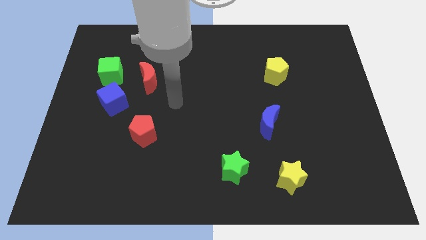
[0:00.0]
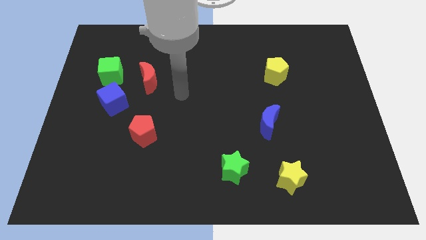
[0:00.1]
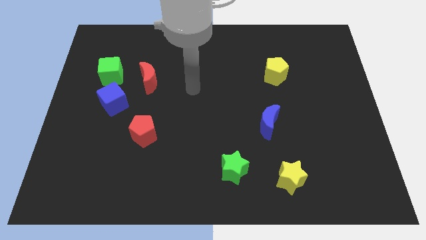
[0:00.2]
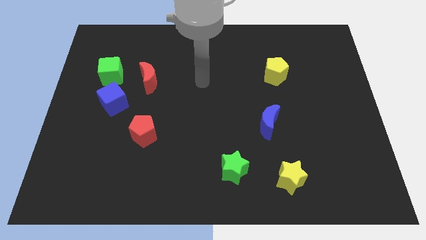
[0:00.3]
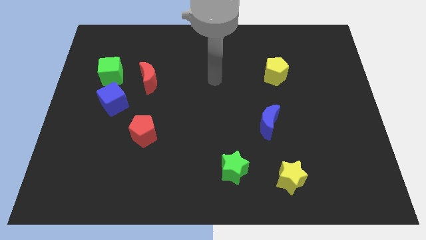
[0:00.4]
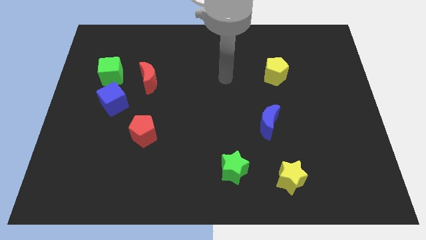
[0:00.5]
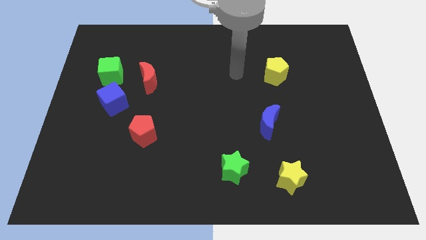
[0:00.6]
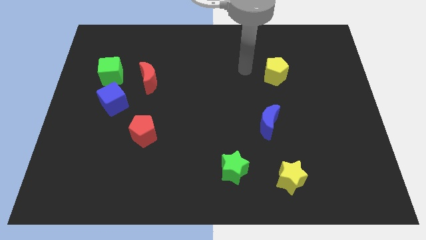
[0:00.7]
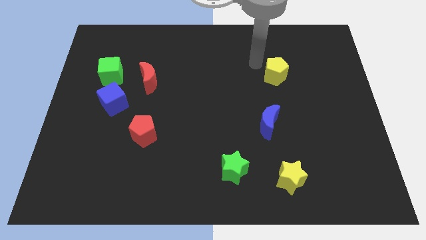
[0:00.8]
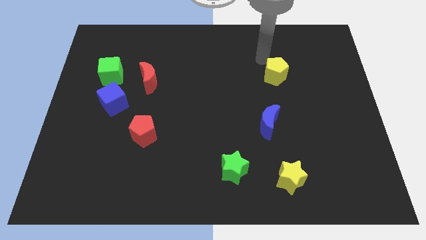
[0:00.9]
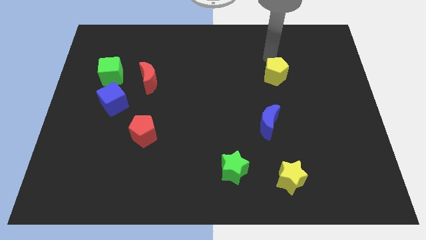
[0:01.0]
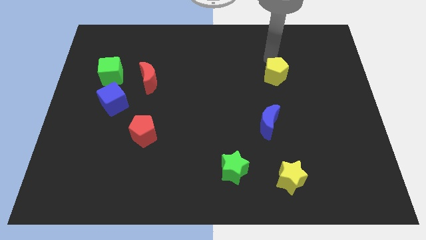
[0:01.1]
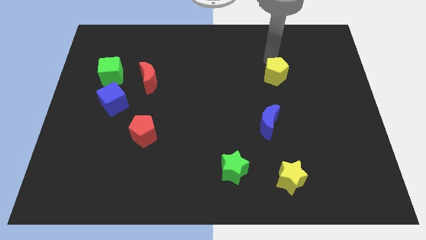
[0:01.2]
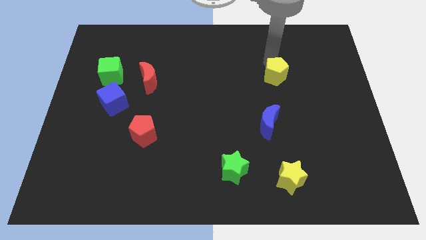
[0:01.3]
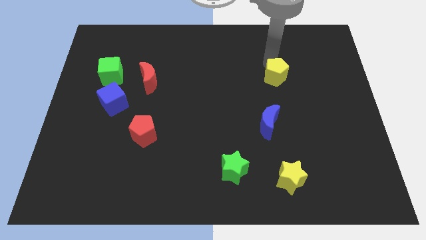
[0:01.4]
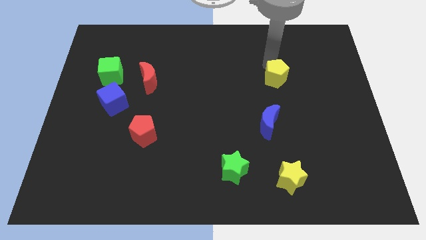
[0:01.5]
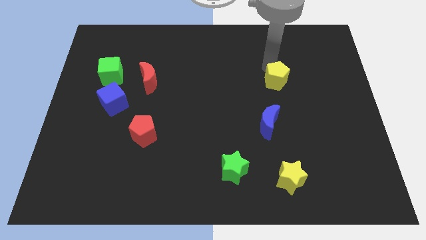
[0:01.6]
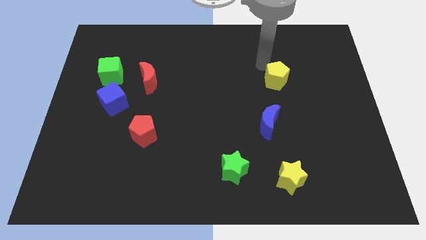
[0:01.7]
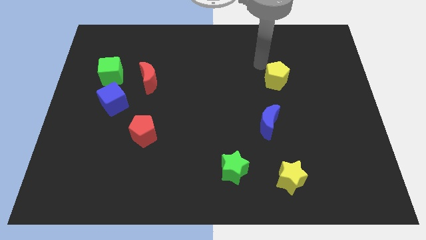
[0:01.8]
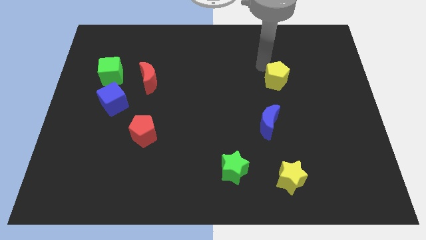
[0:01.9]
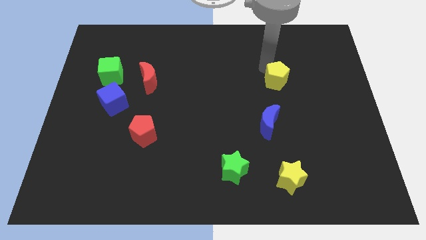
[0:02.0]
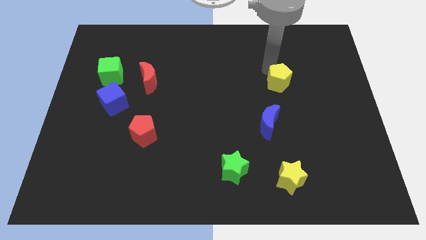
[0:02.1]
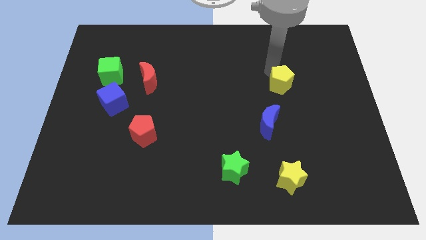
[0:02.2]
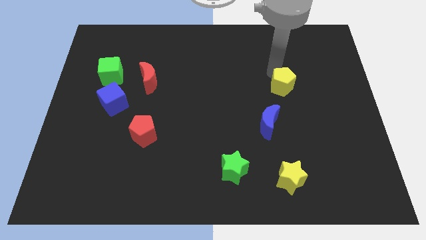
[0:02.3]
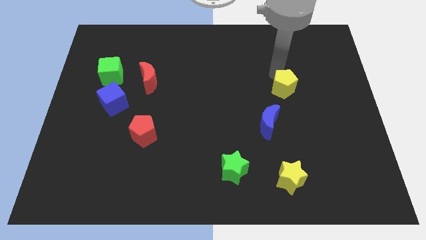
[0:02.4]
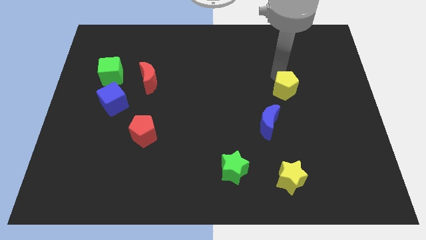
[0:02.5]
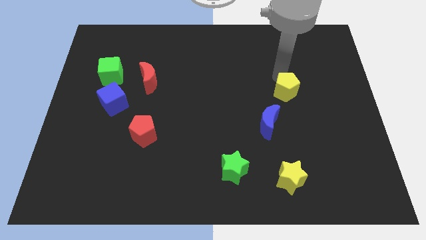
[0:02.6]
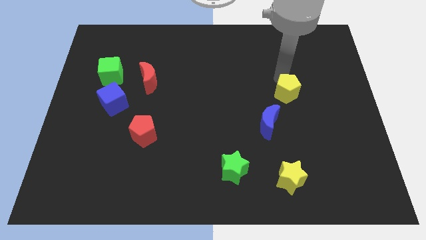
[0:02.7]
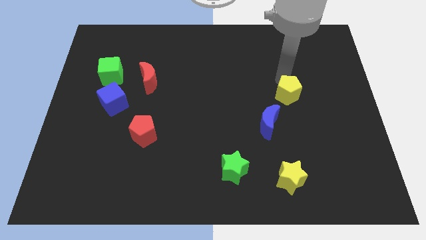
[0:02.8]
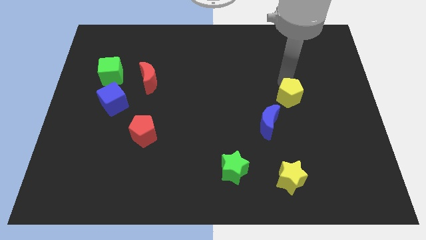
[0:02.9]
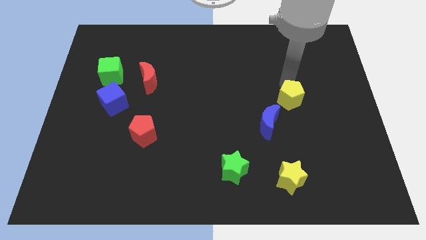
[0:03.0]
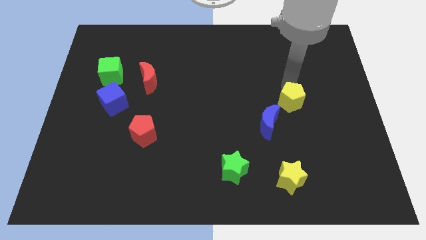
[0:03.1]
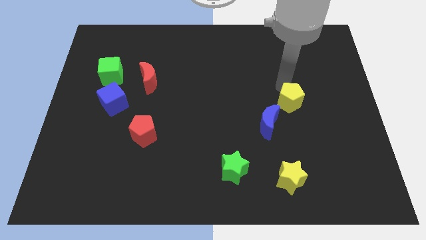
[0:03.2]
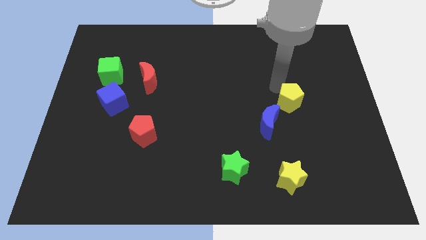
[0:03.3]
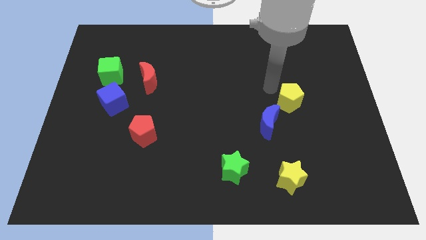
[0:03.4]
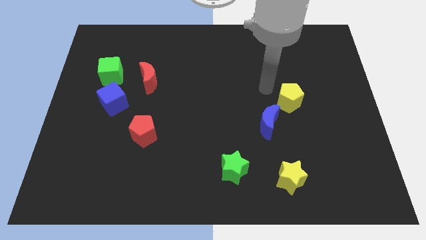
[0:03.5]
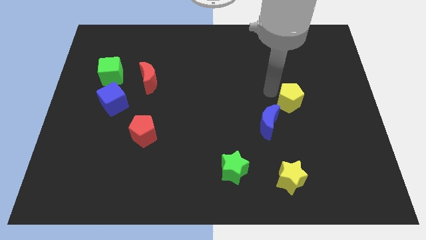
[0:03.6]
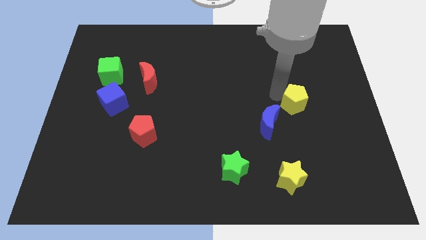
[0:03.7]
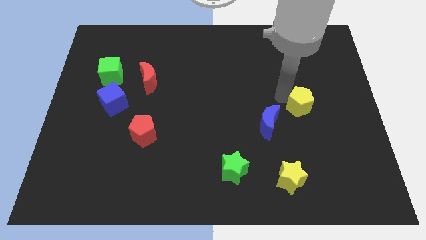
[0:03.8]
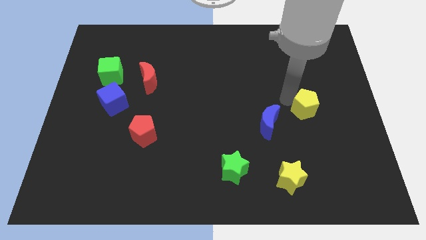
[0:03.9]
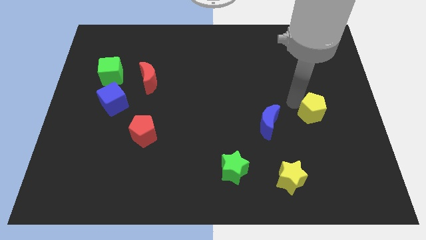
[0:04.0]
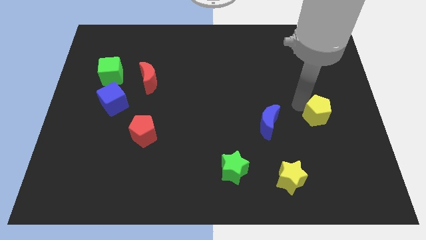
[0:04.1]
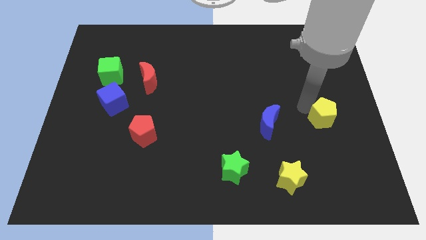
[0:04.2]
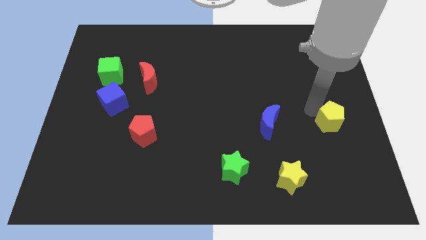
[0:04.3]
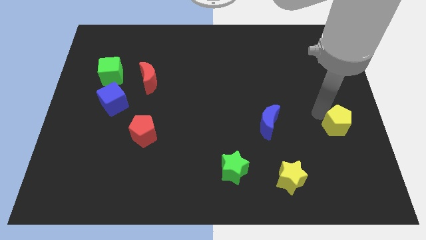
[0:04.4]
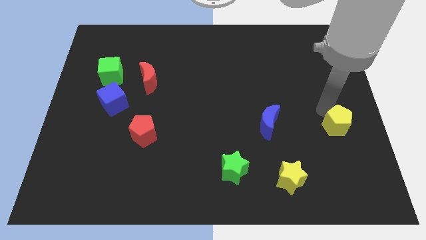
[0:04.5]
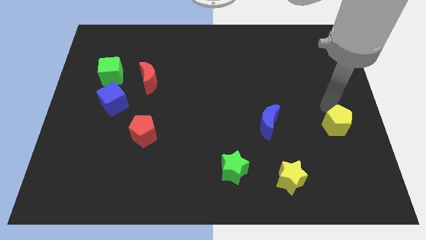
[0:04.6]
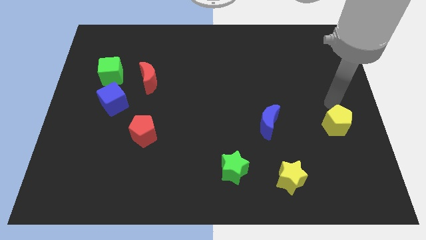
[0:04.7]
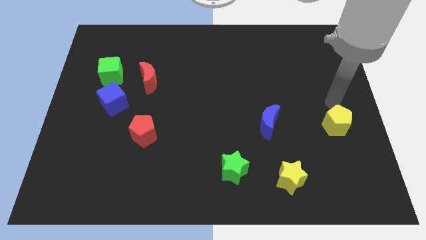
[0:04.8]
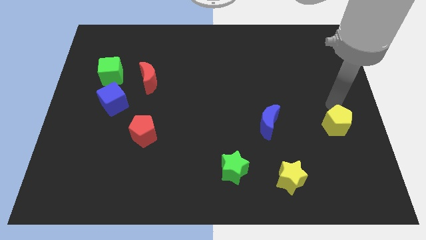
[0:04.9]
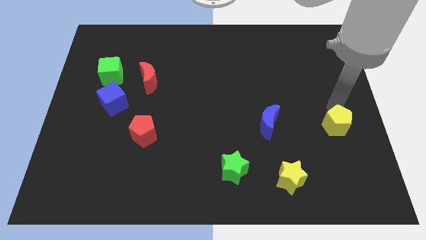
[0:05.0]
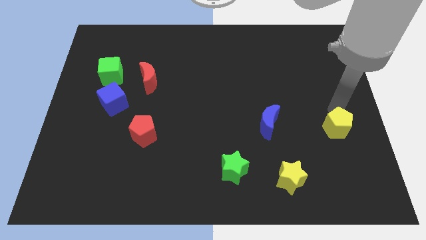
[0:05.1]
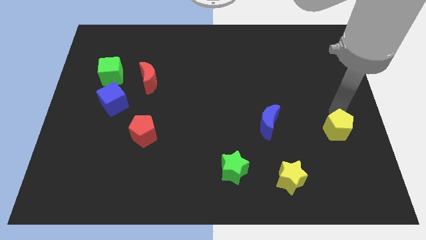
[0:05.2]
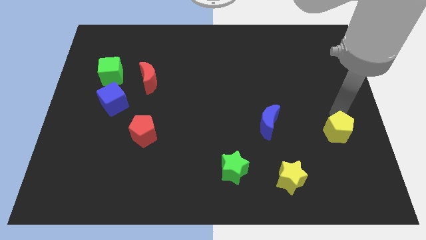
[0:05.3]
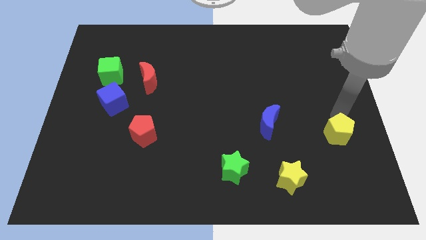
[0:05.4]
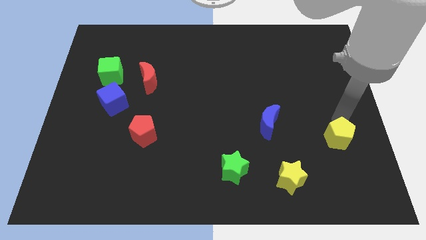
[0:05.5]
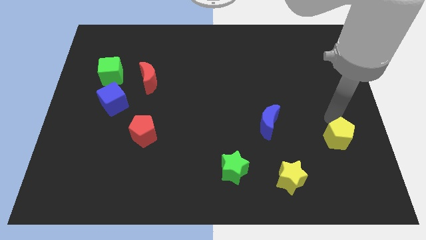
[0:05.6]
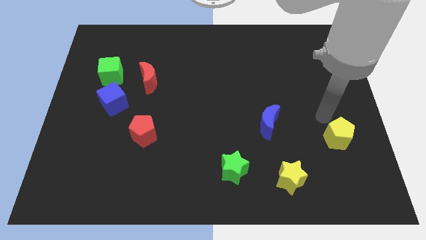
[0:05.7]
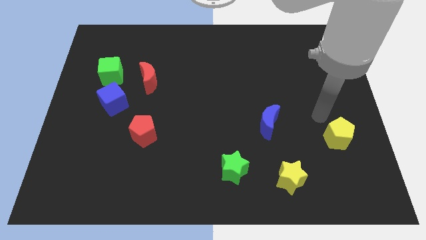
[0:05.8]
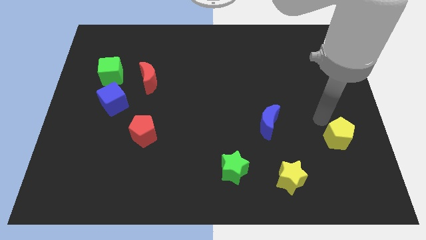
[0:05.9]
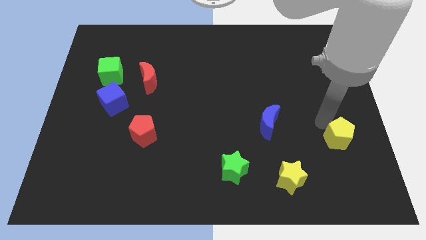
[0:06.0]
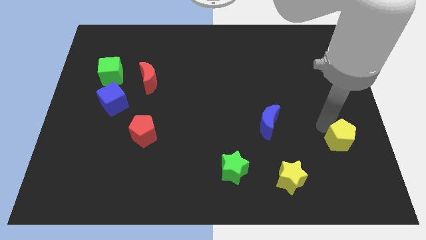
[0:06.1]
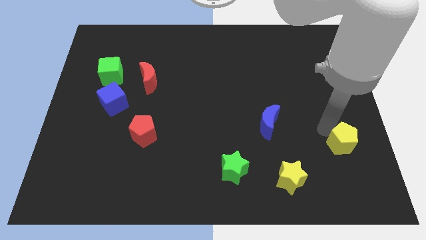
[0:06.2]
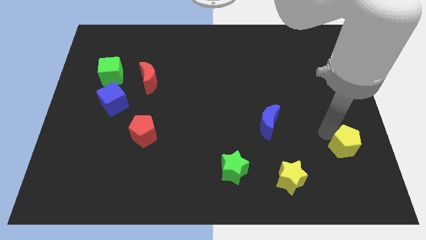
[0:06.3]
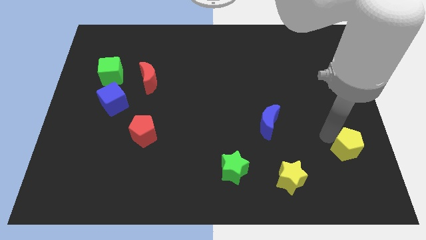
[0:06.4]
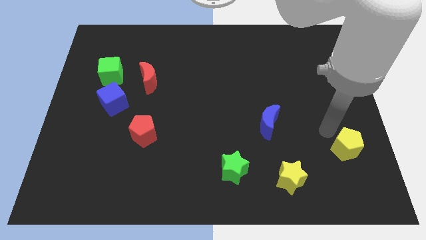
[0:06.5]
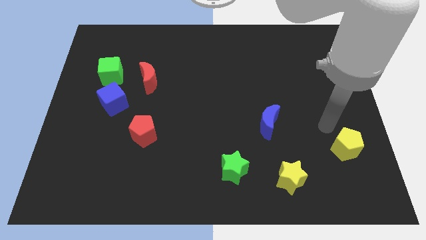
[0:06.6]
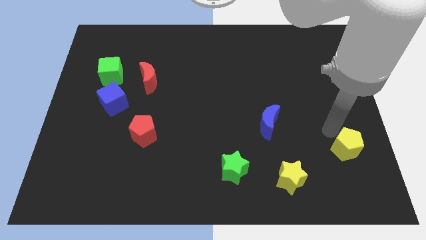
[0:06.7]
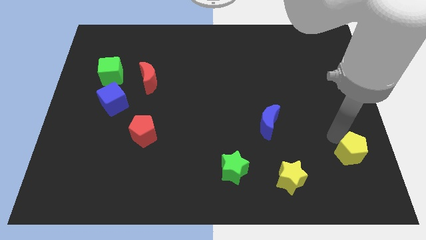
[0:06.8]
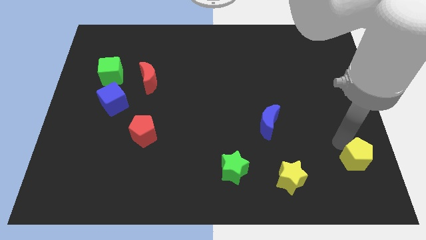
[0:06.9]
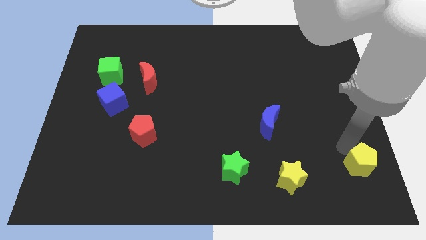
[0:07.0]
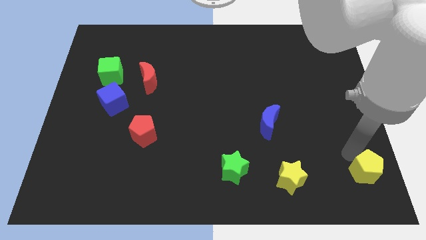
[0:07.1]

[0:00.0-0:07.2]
push the yellow pentagon to the bottom right corner
